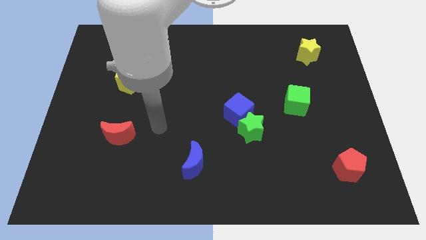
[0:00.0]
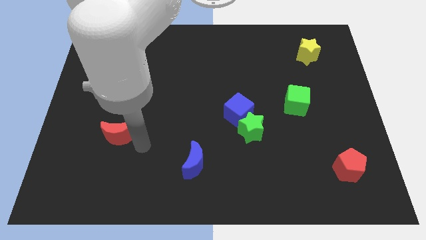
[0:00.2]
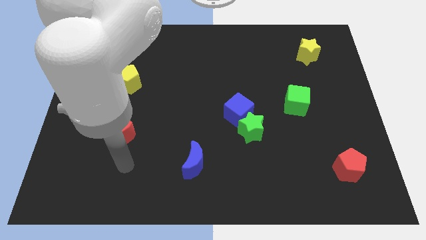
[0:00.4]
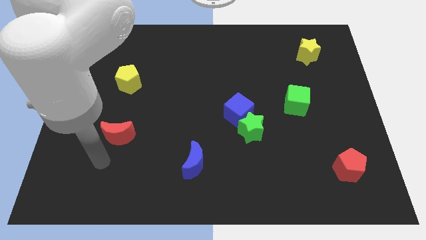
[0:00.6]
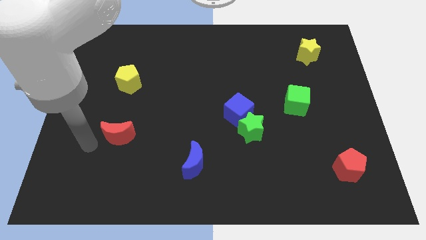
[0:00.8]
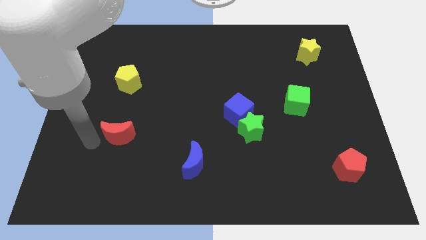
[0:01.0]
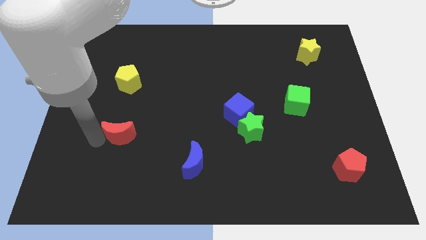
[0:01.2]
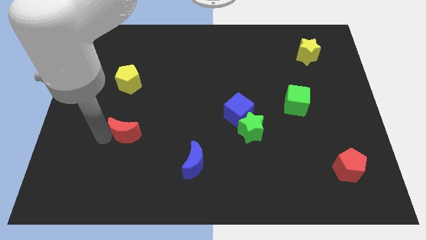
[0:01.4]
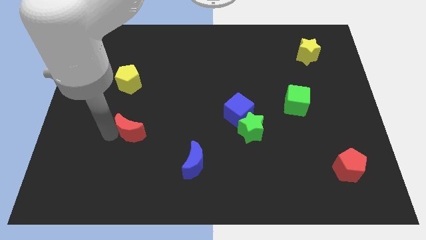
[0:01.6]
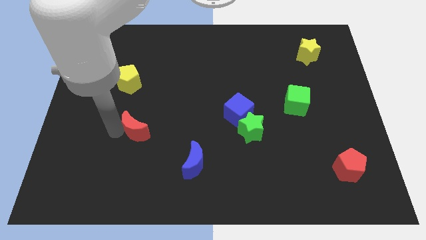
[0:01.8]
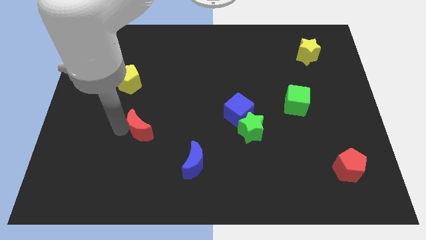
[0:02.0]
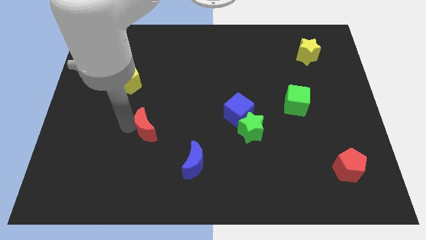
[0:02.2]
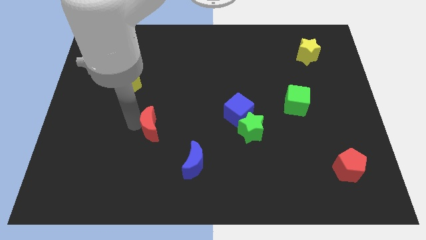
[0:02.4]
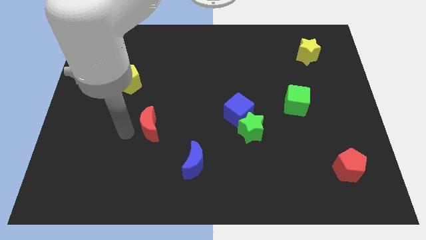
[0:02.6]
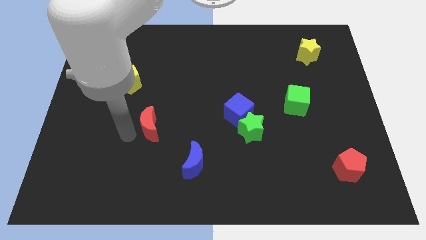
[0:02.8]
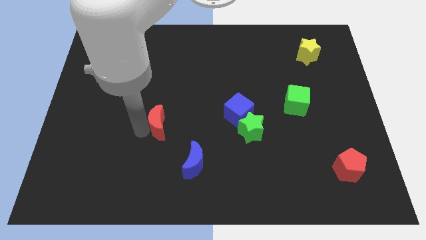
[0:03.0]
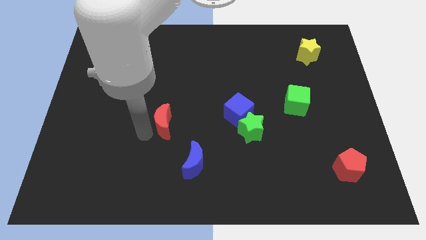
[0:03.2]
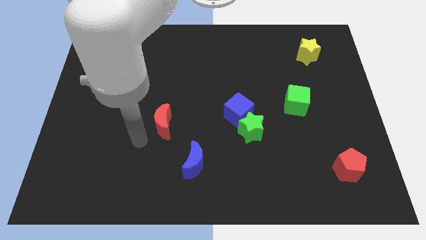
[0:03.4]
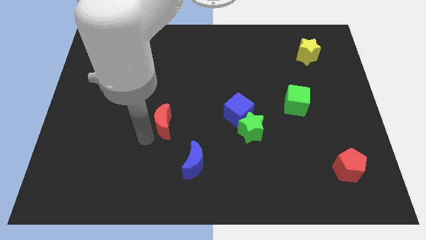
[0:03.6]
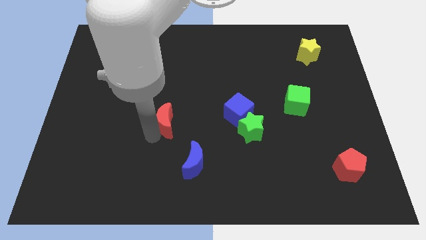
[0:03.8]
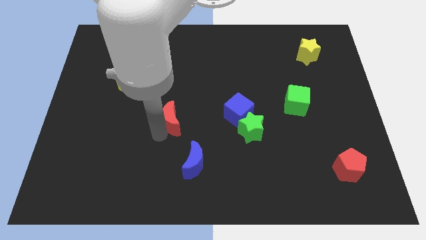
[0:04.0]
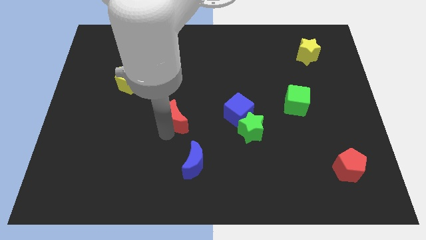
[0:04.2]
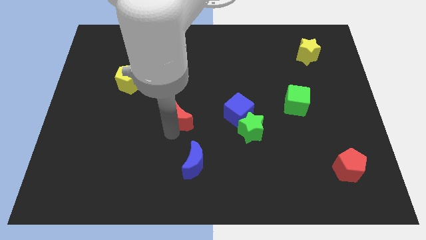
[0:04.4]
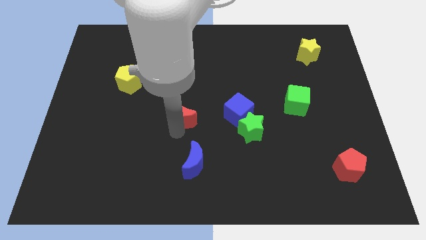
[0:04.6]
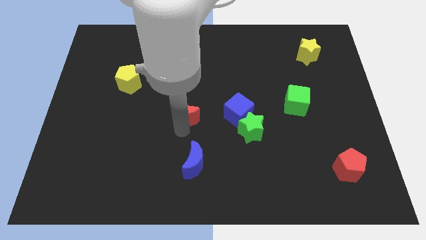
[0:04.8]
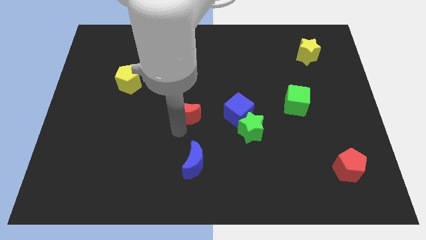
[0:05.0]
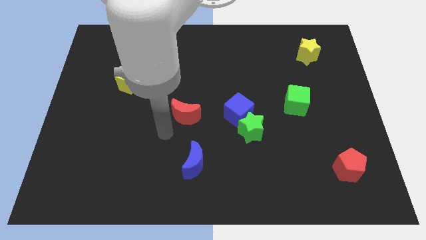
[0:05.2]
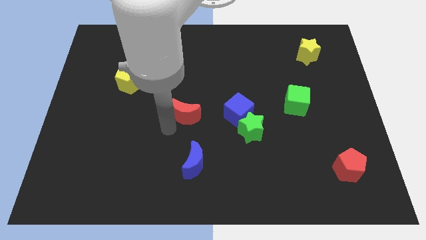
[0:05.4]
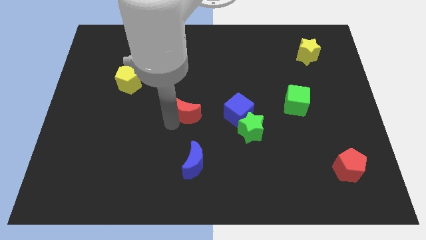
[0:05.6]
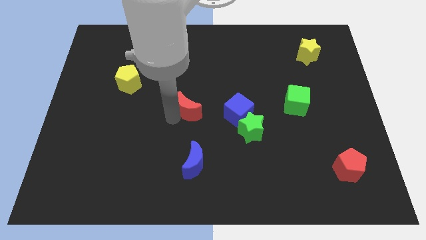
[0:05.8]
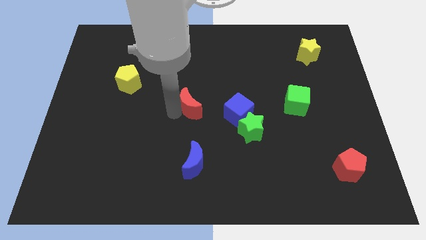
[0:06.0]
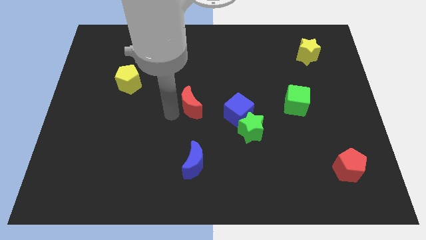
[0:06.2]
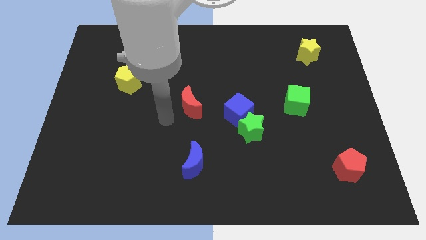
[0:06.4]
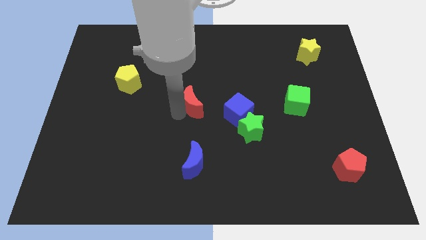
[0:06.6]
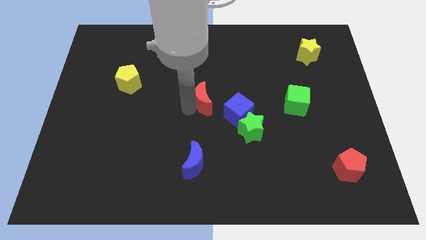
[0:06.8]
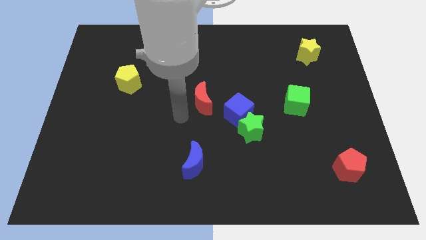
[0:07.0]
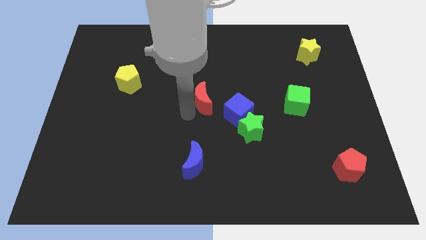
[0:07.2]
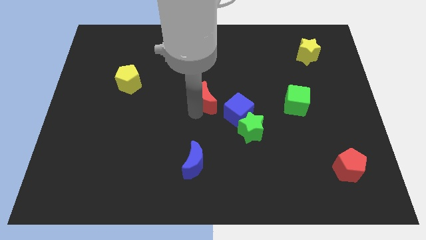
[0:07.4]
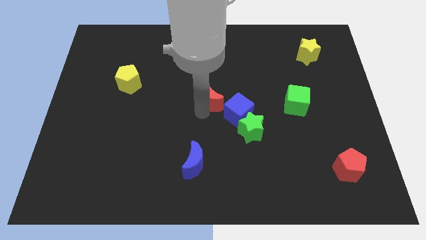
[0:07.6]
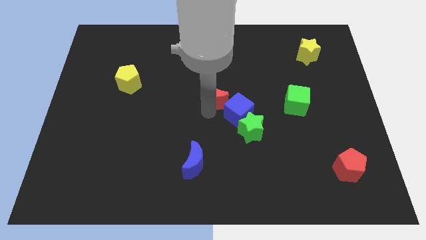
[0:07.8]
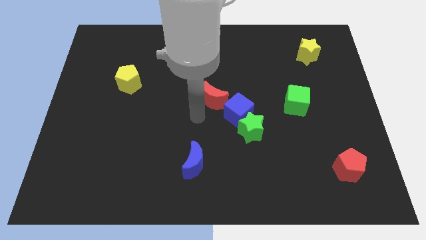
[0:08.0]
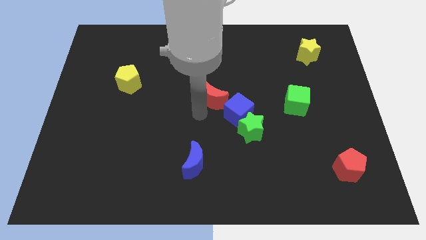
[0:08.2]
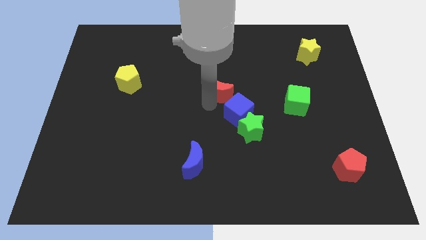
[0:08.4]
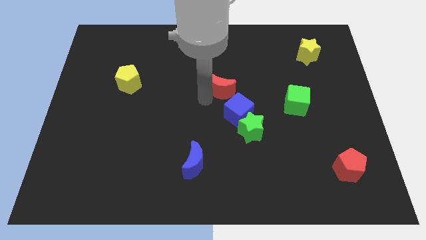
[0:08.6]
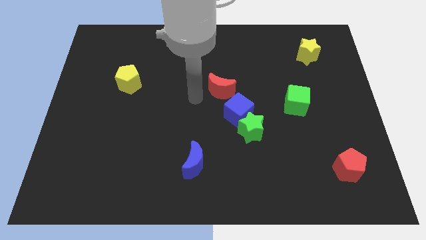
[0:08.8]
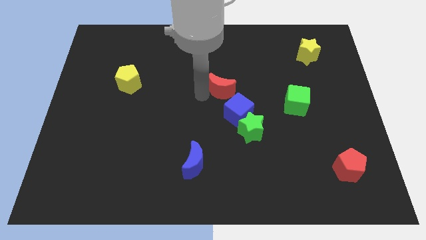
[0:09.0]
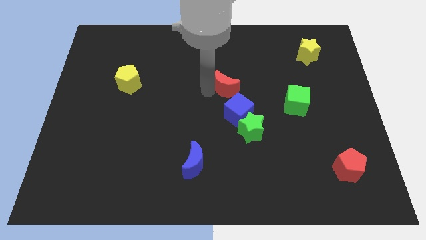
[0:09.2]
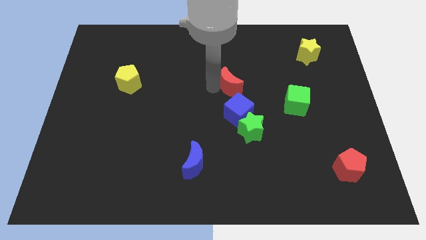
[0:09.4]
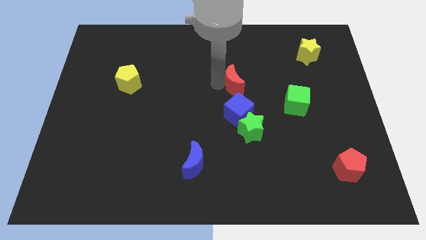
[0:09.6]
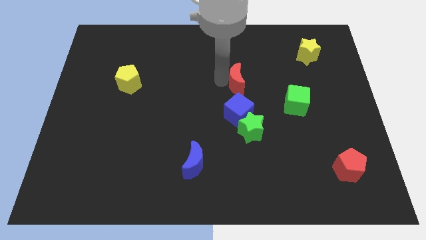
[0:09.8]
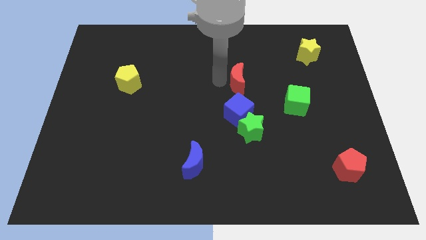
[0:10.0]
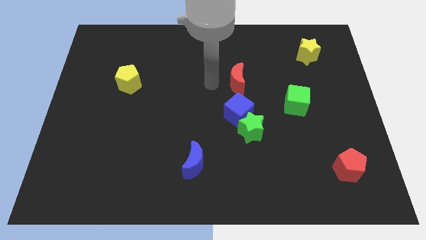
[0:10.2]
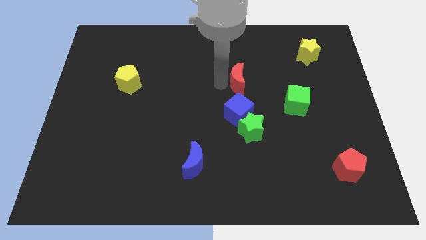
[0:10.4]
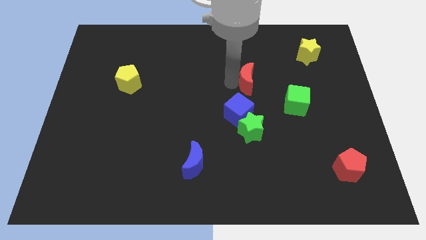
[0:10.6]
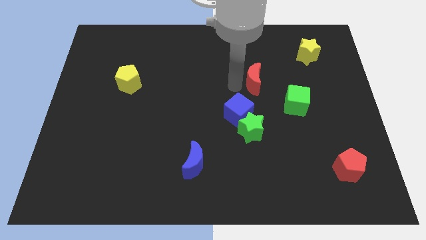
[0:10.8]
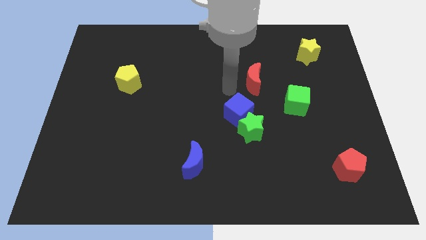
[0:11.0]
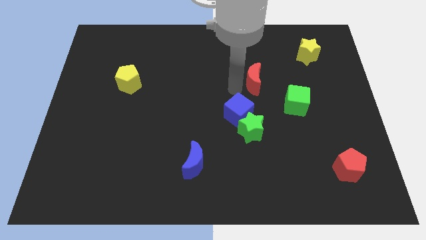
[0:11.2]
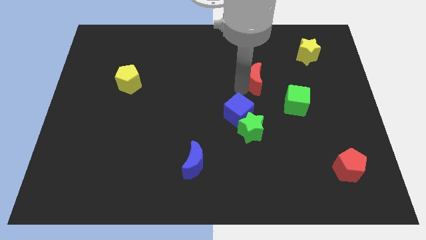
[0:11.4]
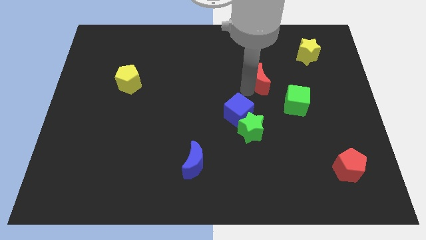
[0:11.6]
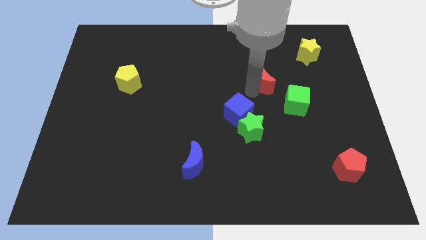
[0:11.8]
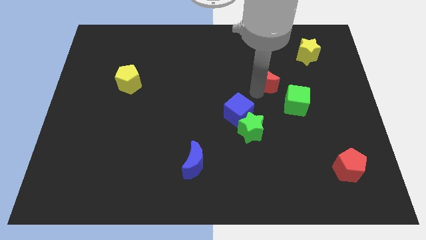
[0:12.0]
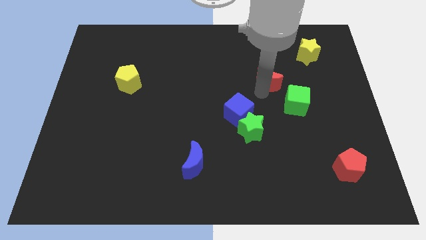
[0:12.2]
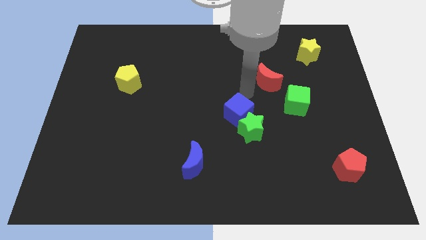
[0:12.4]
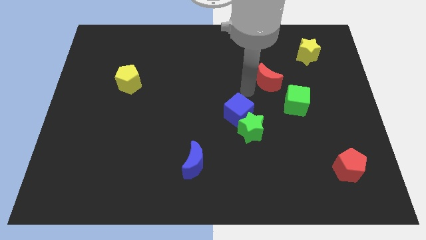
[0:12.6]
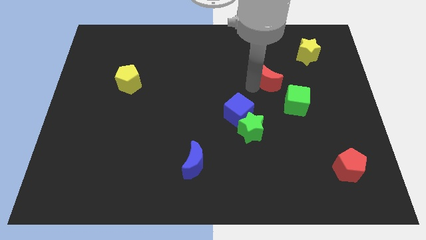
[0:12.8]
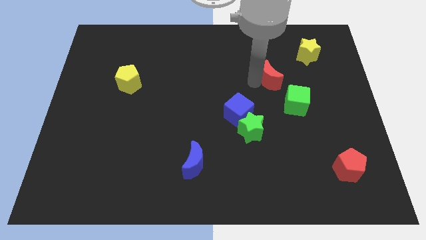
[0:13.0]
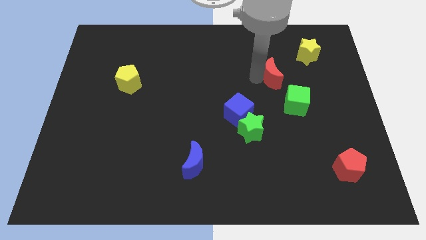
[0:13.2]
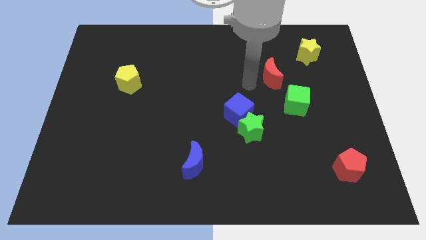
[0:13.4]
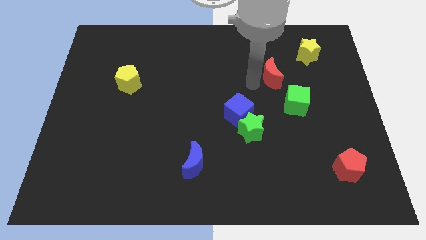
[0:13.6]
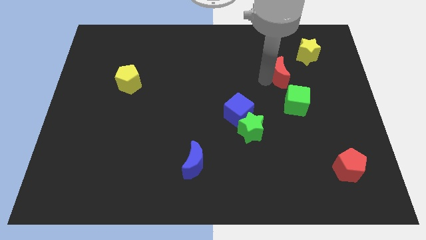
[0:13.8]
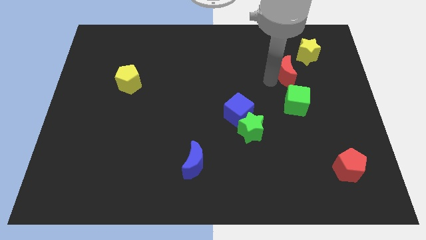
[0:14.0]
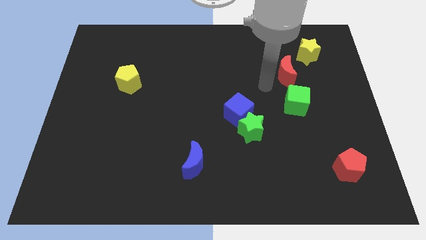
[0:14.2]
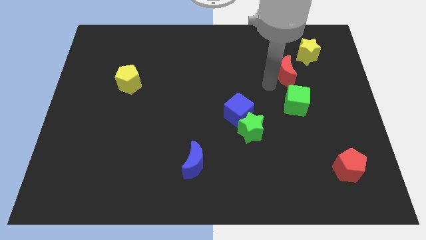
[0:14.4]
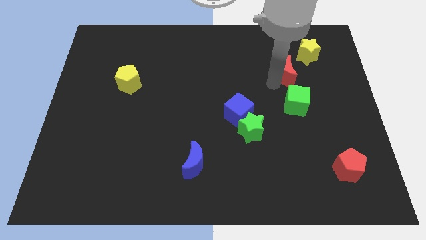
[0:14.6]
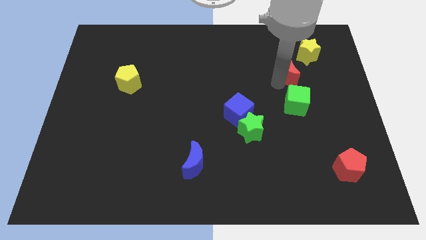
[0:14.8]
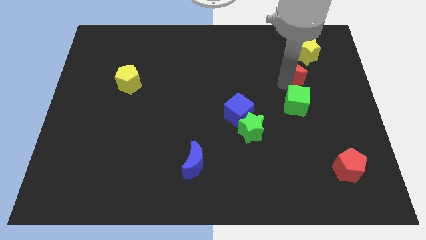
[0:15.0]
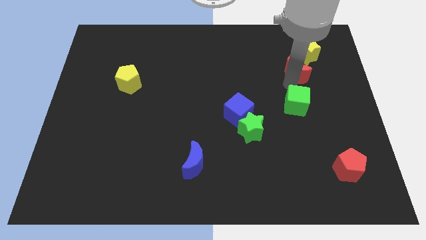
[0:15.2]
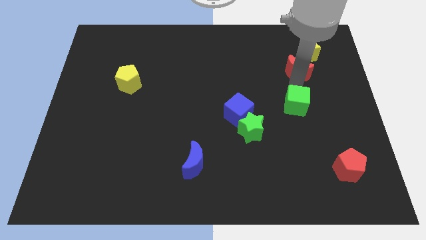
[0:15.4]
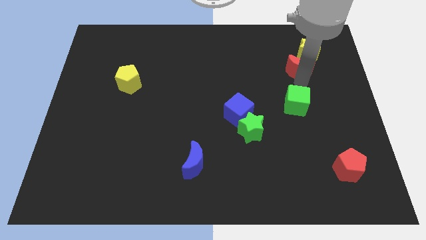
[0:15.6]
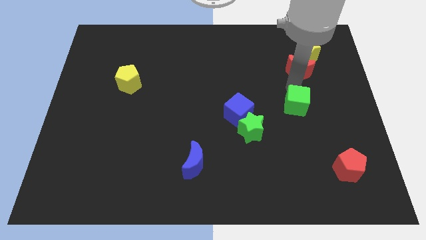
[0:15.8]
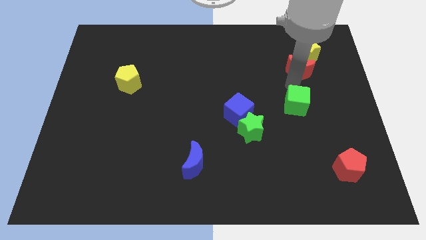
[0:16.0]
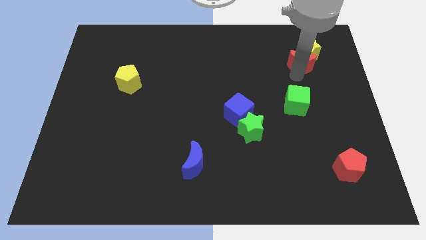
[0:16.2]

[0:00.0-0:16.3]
push the red moon next to the yellow star
